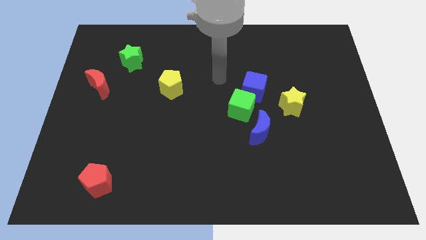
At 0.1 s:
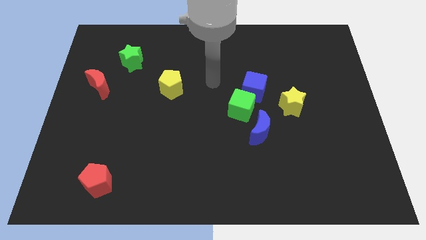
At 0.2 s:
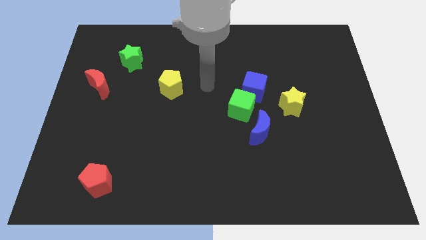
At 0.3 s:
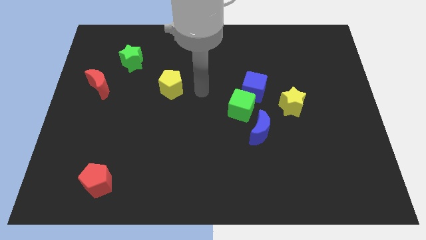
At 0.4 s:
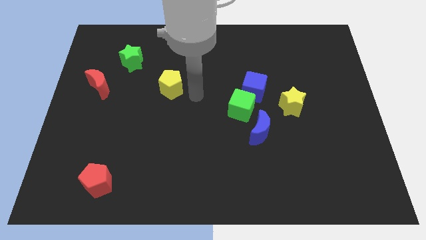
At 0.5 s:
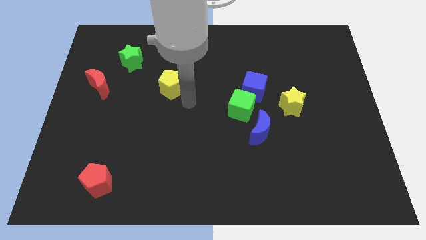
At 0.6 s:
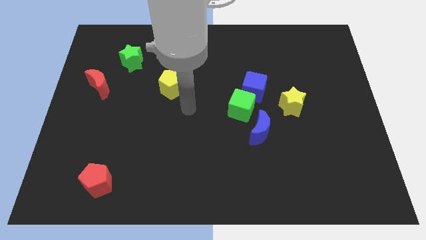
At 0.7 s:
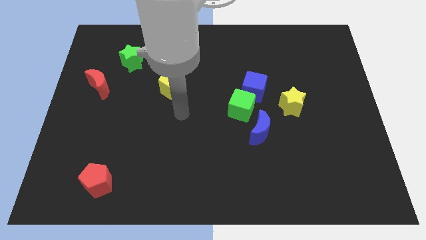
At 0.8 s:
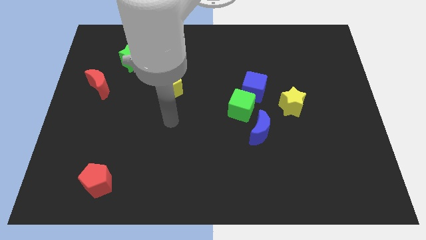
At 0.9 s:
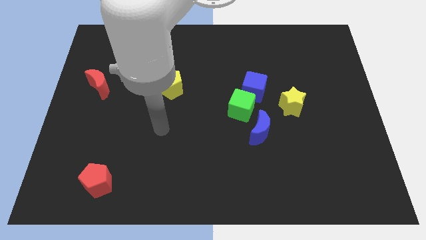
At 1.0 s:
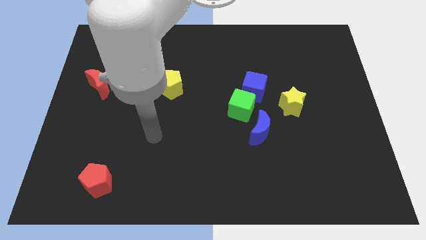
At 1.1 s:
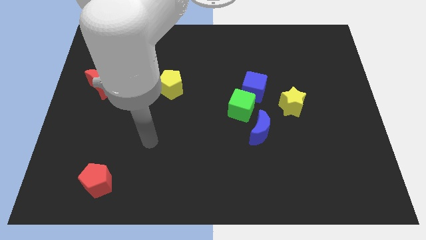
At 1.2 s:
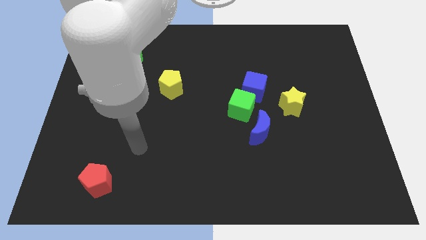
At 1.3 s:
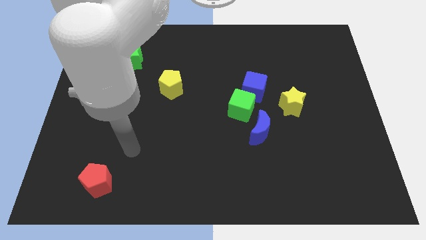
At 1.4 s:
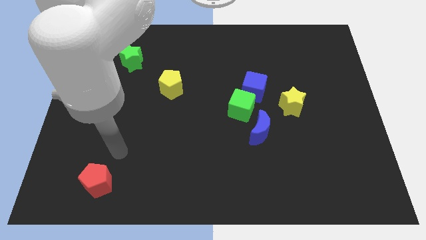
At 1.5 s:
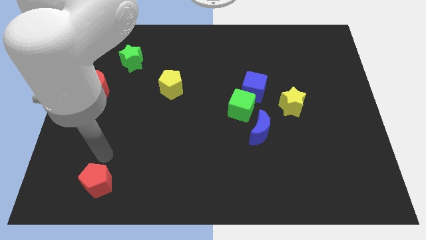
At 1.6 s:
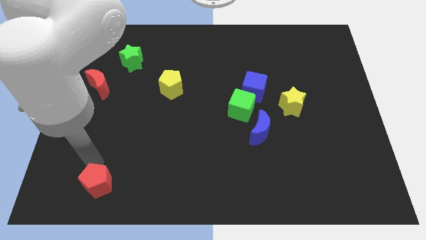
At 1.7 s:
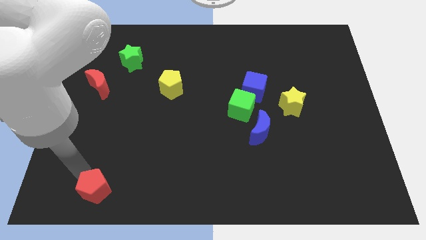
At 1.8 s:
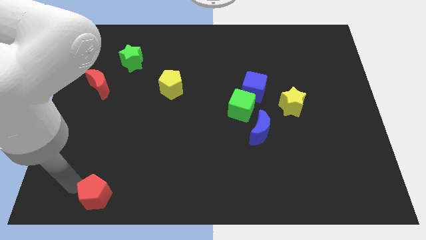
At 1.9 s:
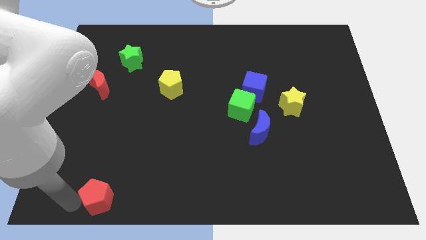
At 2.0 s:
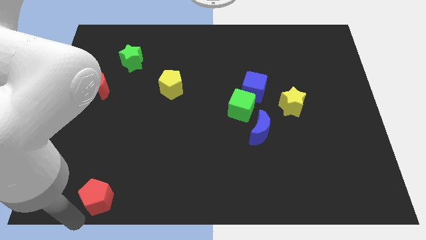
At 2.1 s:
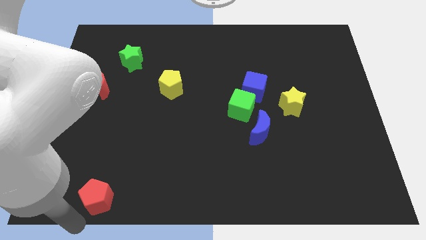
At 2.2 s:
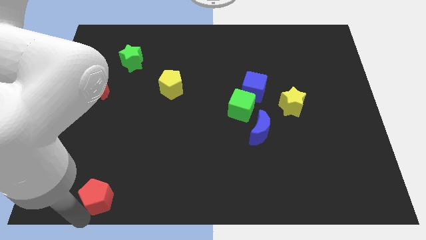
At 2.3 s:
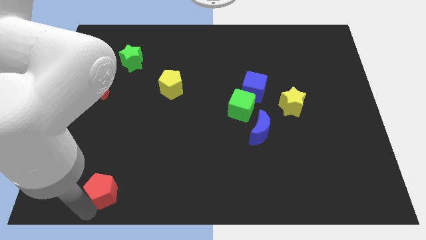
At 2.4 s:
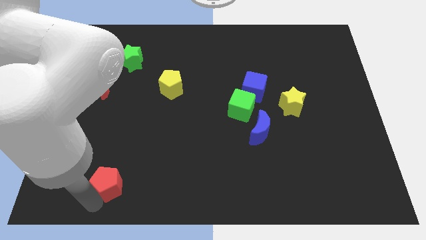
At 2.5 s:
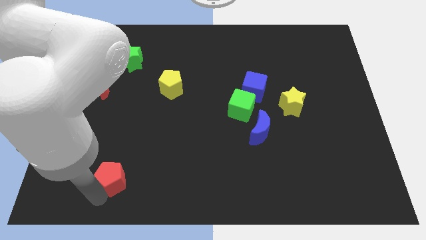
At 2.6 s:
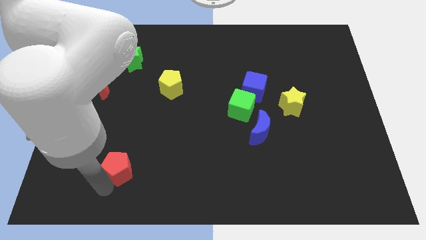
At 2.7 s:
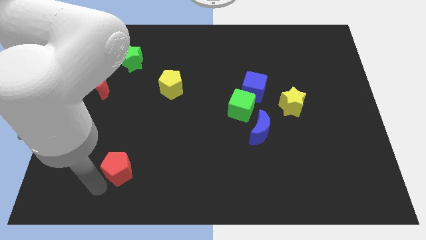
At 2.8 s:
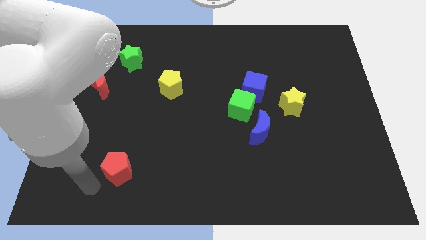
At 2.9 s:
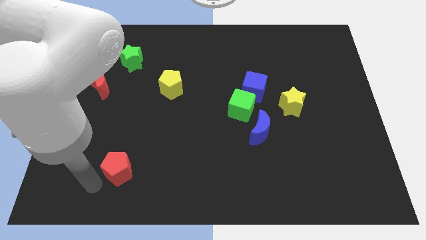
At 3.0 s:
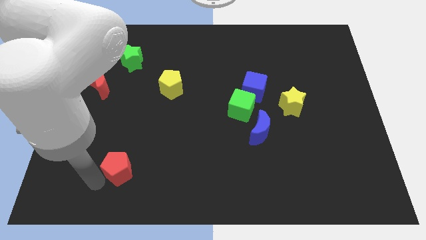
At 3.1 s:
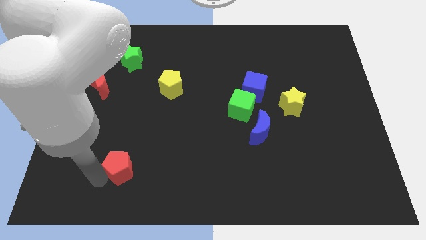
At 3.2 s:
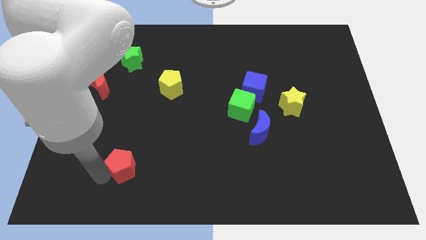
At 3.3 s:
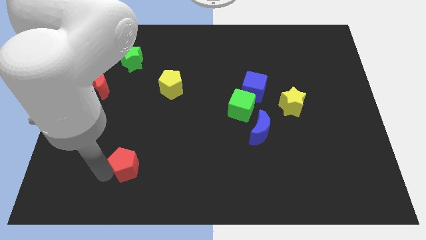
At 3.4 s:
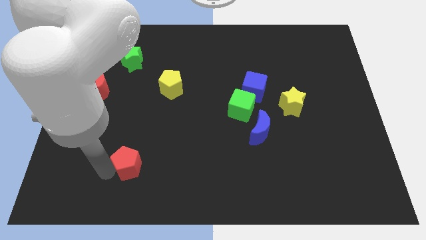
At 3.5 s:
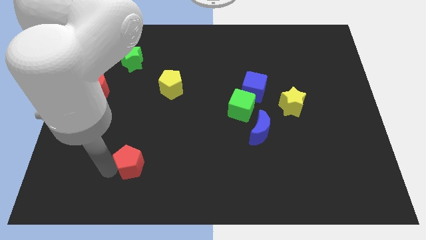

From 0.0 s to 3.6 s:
slightly push the red pentagon upwards and to the right diagonally

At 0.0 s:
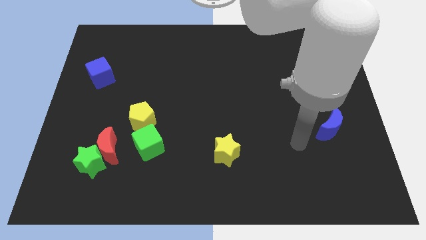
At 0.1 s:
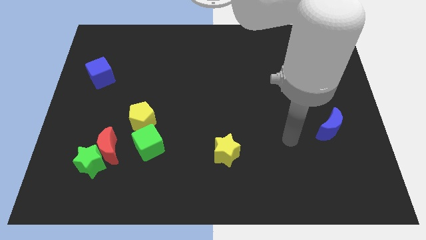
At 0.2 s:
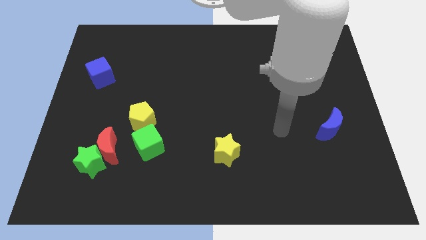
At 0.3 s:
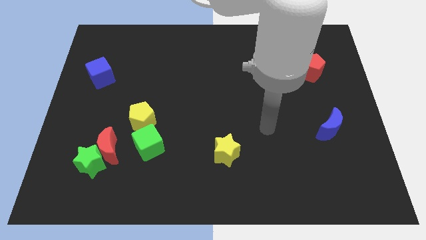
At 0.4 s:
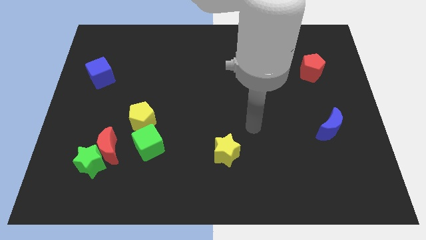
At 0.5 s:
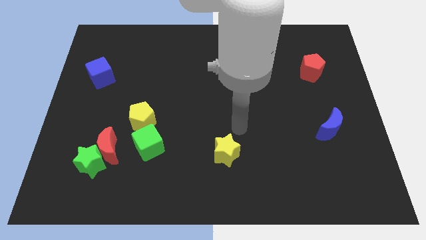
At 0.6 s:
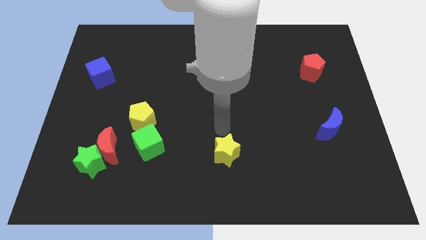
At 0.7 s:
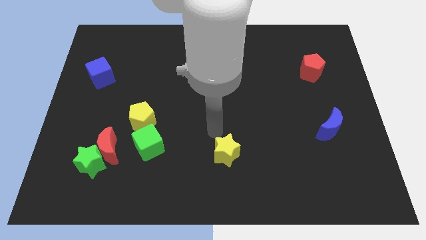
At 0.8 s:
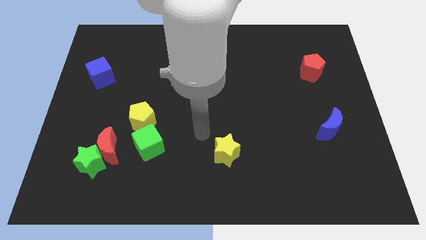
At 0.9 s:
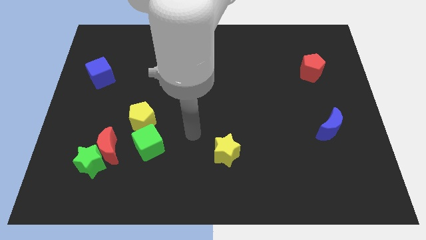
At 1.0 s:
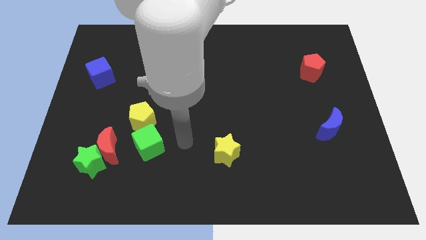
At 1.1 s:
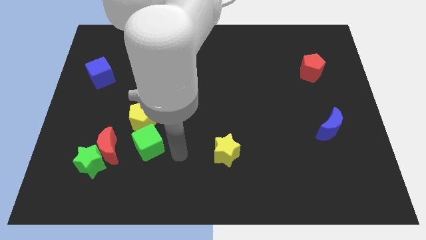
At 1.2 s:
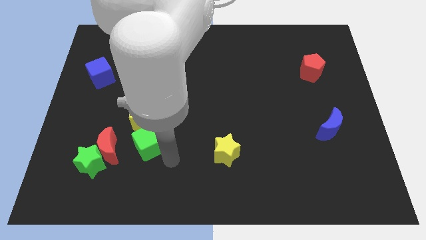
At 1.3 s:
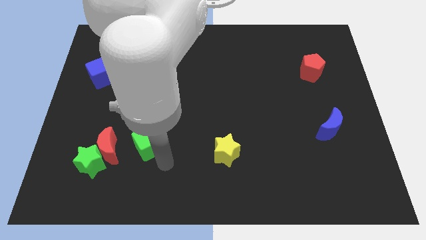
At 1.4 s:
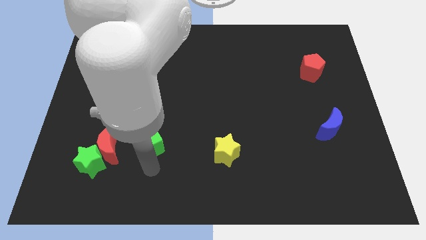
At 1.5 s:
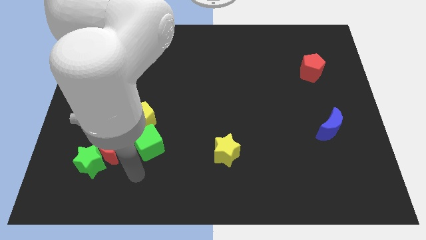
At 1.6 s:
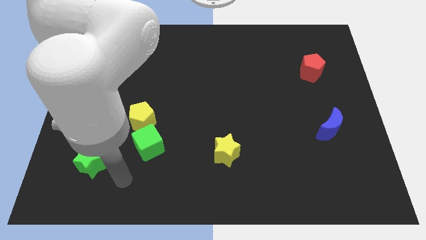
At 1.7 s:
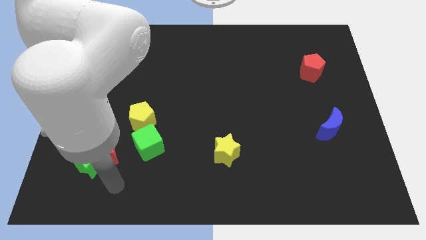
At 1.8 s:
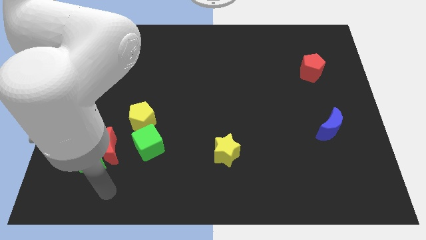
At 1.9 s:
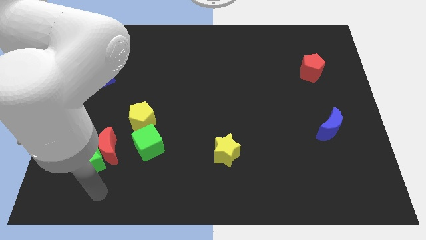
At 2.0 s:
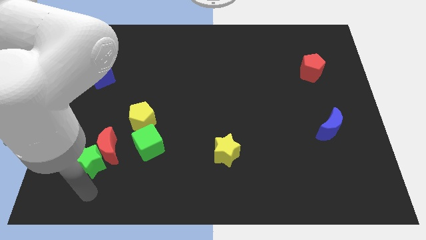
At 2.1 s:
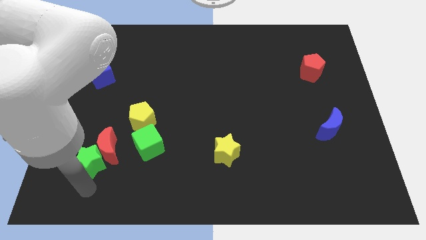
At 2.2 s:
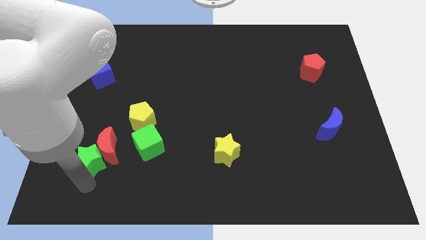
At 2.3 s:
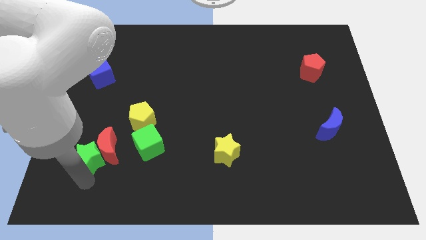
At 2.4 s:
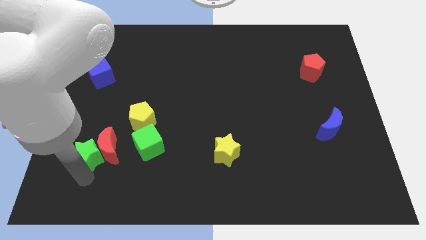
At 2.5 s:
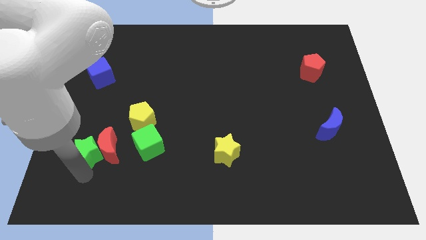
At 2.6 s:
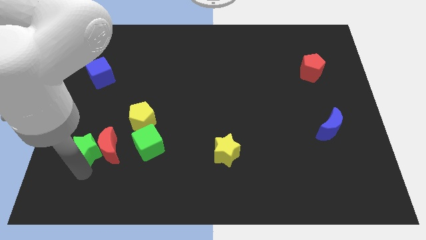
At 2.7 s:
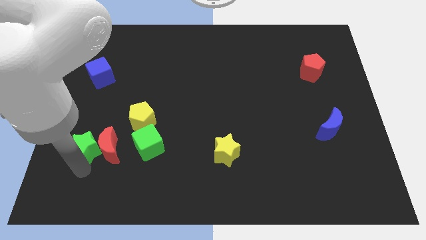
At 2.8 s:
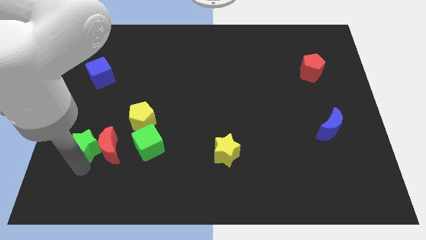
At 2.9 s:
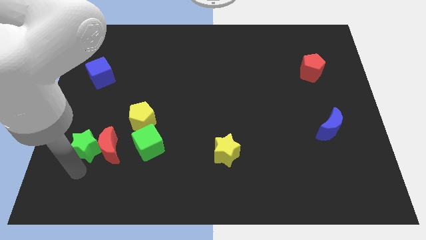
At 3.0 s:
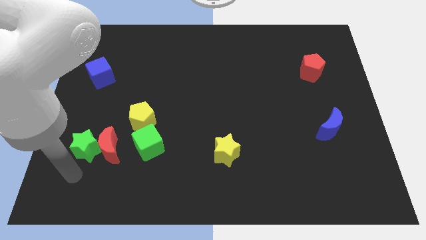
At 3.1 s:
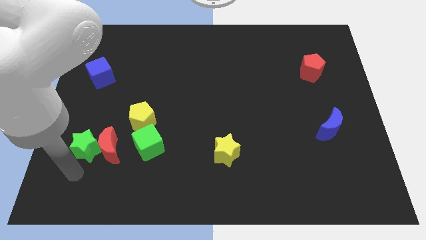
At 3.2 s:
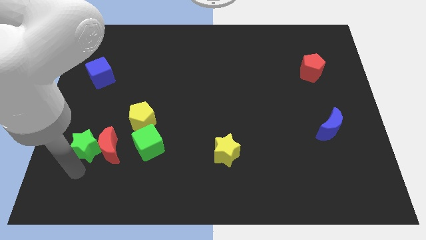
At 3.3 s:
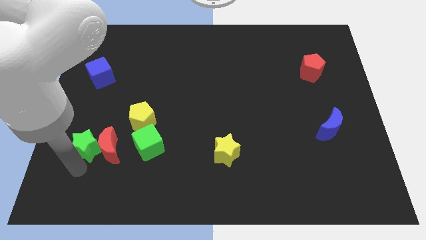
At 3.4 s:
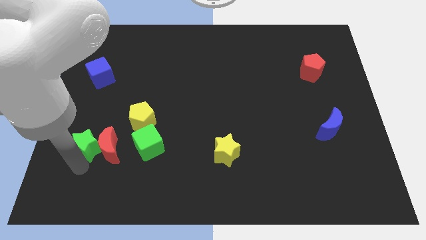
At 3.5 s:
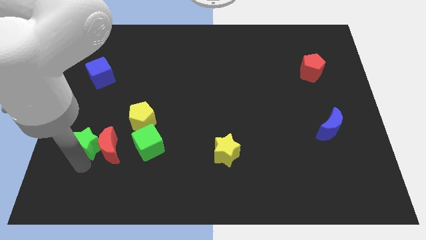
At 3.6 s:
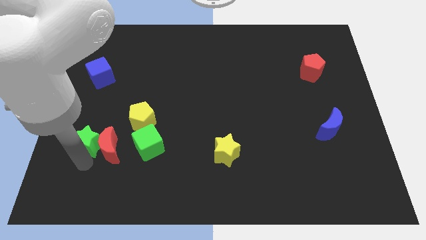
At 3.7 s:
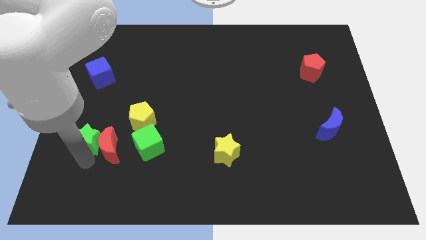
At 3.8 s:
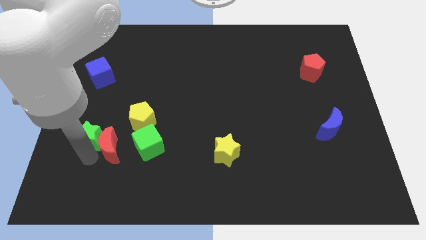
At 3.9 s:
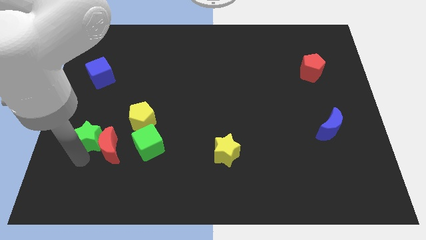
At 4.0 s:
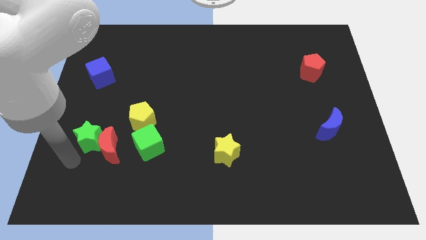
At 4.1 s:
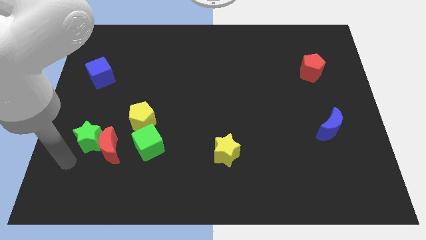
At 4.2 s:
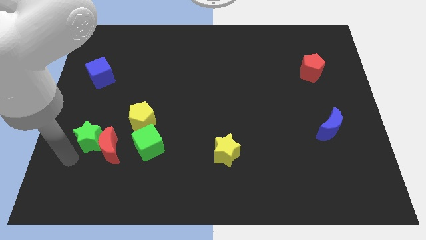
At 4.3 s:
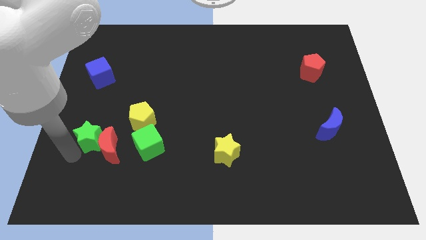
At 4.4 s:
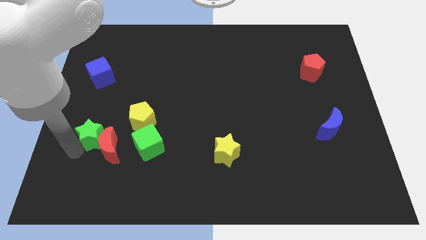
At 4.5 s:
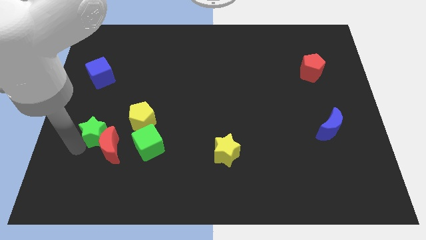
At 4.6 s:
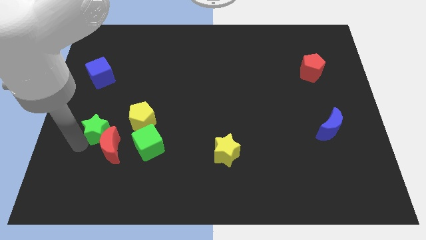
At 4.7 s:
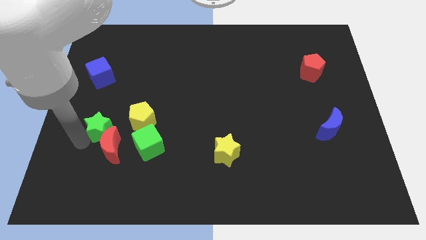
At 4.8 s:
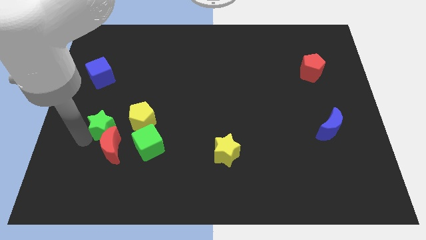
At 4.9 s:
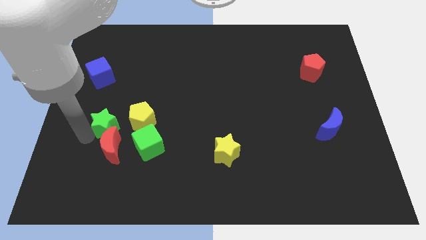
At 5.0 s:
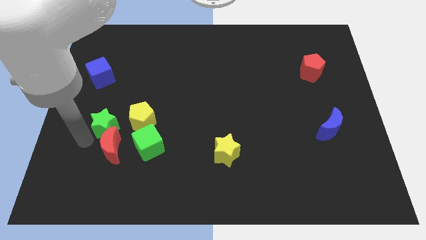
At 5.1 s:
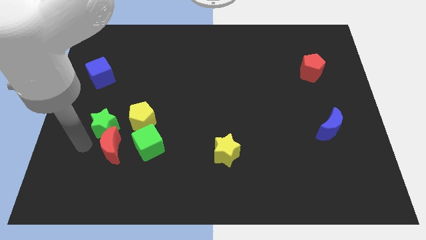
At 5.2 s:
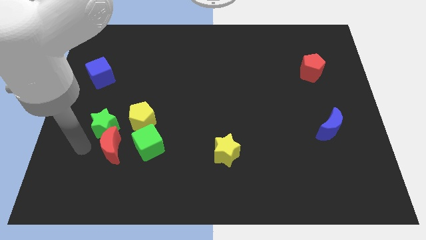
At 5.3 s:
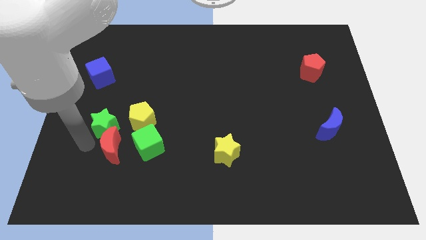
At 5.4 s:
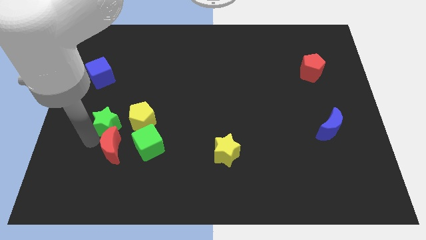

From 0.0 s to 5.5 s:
slightly move the green star up and to the right diagonally
